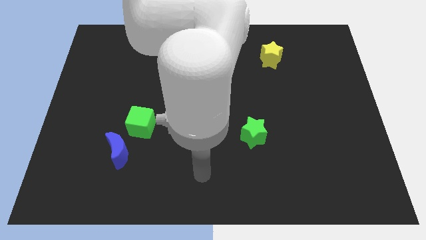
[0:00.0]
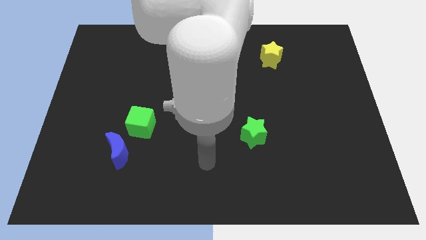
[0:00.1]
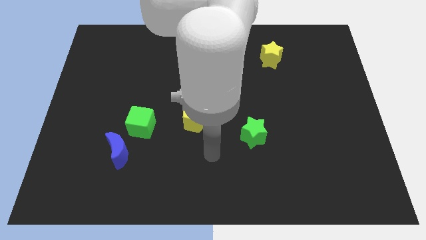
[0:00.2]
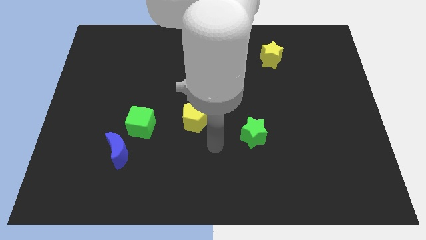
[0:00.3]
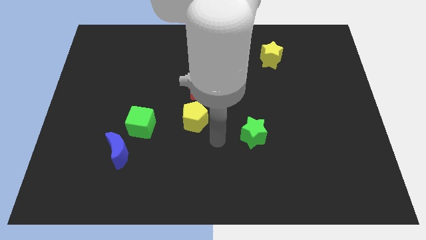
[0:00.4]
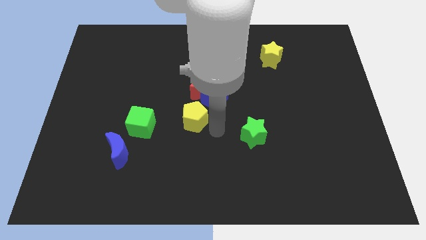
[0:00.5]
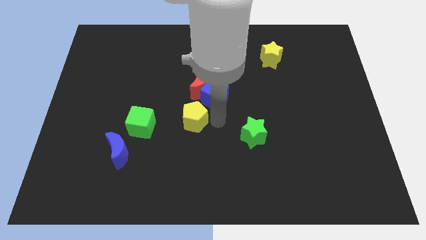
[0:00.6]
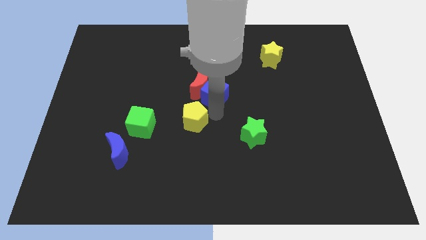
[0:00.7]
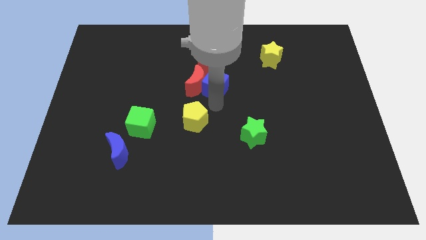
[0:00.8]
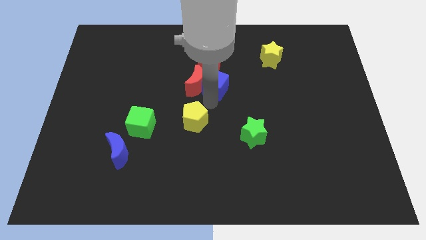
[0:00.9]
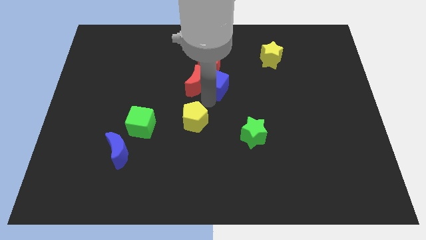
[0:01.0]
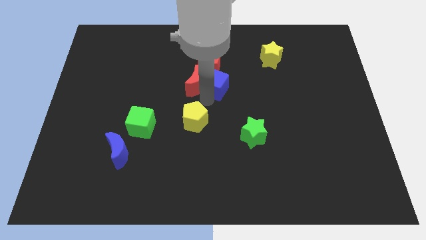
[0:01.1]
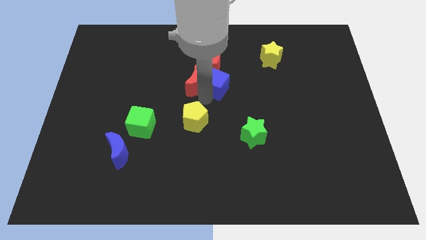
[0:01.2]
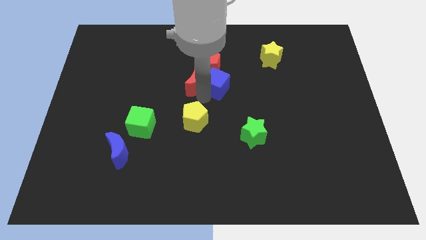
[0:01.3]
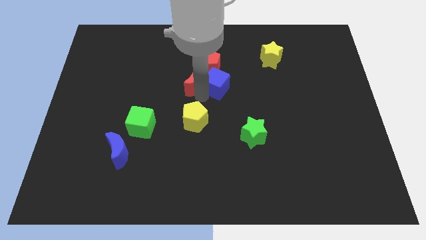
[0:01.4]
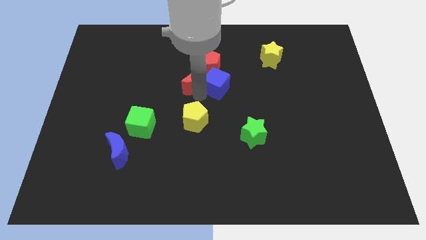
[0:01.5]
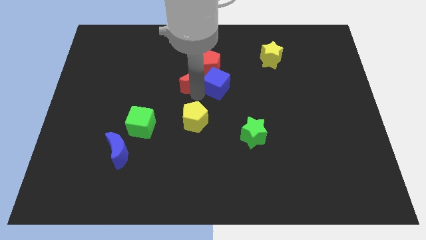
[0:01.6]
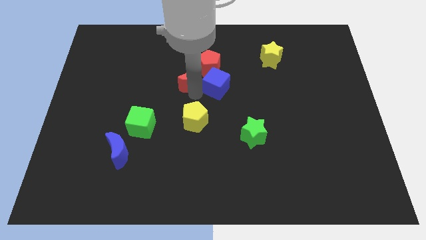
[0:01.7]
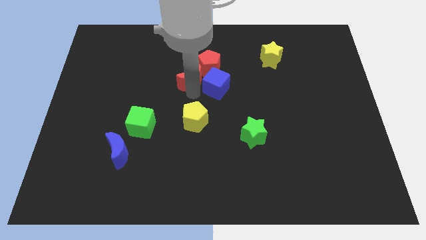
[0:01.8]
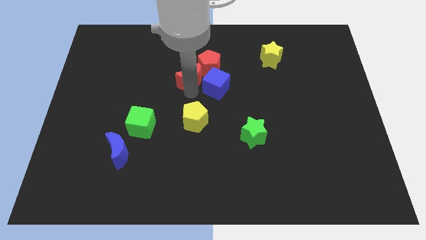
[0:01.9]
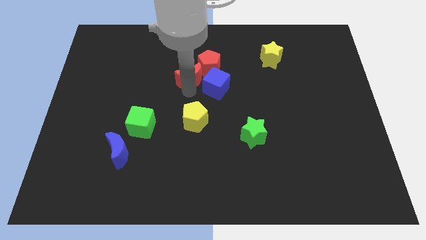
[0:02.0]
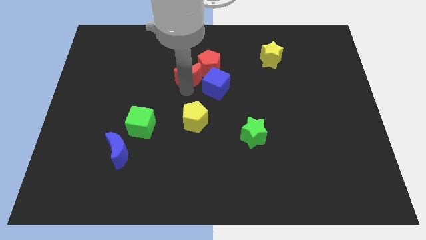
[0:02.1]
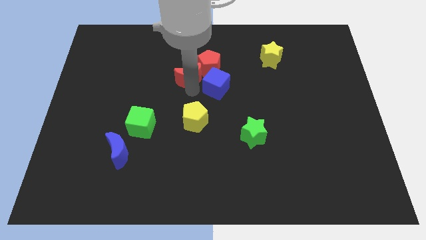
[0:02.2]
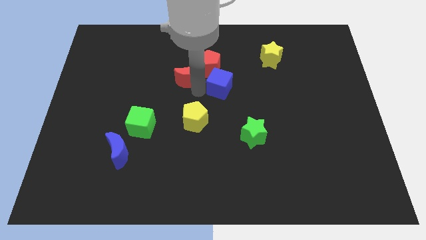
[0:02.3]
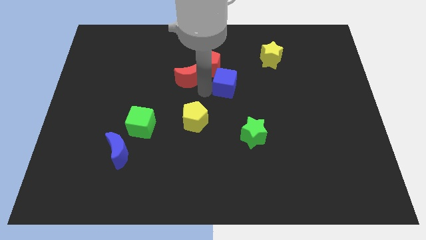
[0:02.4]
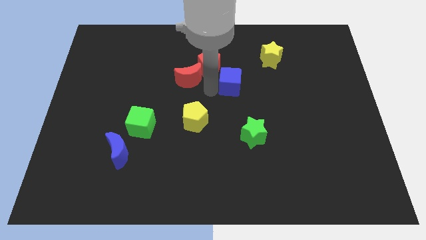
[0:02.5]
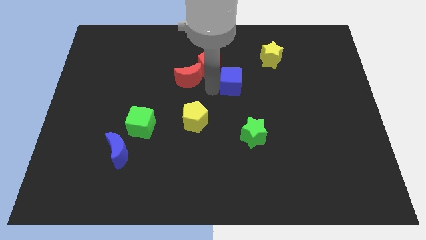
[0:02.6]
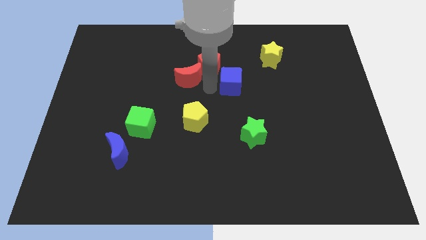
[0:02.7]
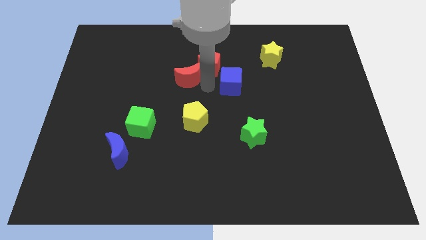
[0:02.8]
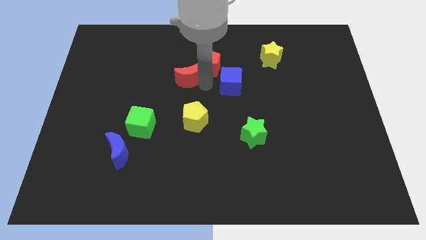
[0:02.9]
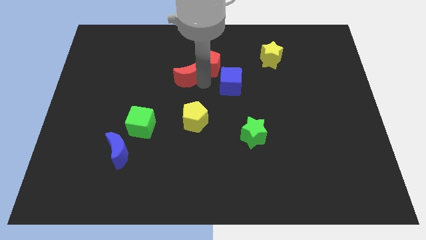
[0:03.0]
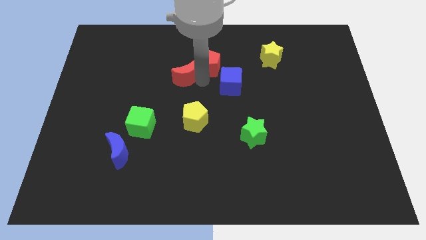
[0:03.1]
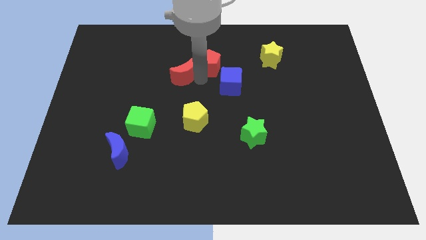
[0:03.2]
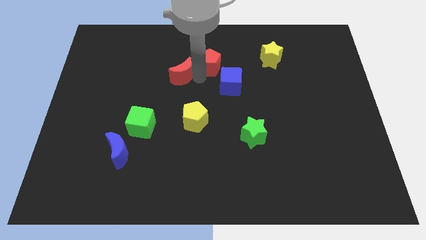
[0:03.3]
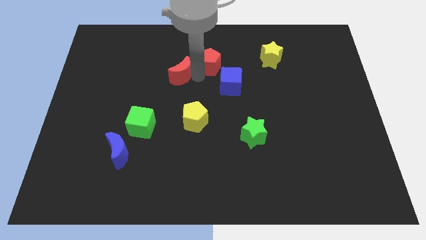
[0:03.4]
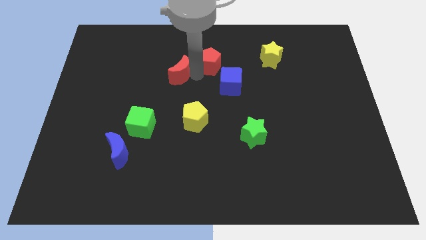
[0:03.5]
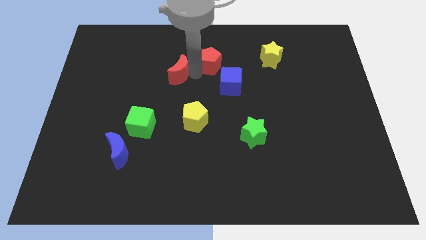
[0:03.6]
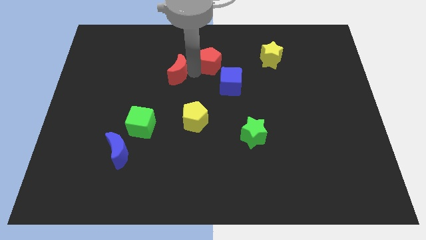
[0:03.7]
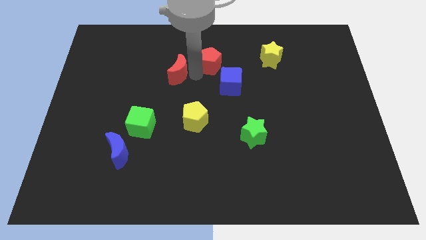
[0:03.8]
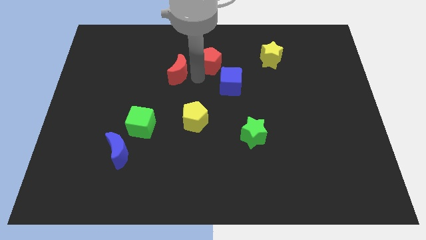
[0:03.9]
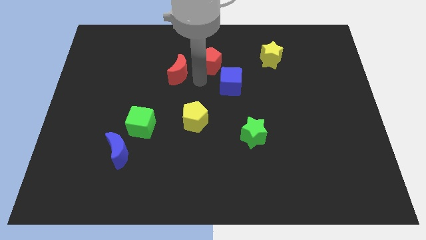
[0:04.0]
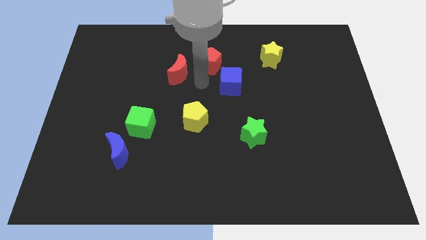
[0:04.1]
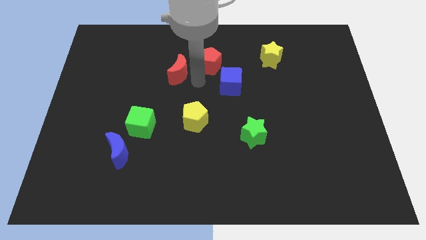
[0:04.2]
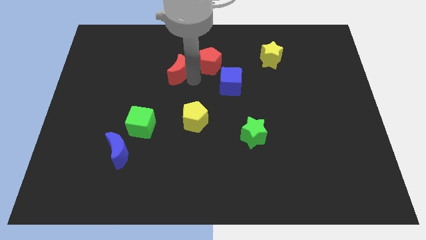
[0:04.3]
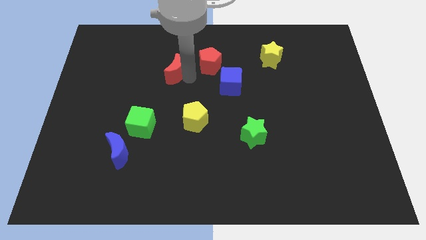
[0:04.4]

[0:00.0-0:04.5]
separate the red moon from the blue cube, red pentagon, and yellow pentagon

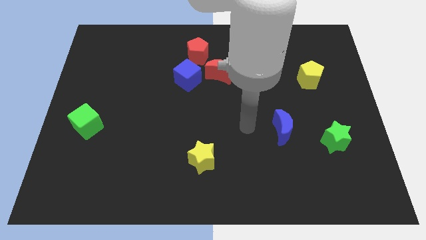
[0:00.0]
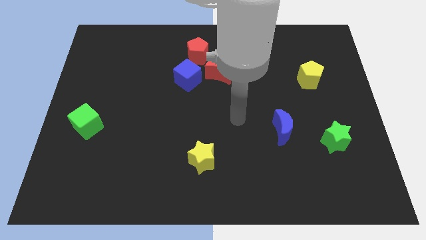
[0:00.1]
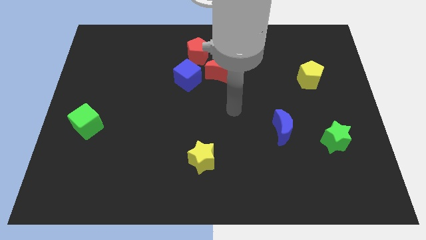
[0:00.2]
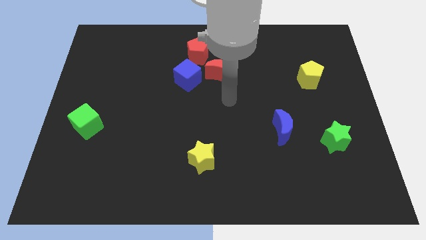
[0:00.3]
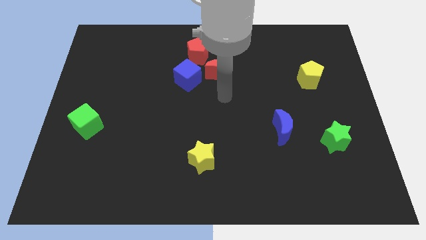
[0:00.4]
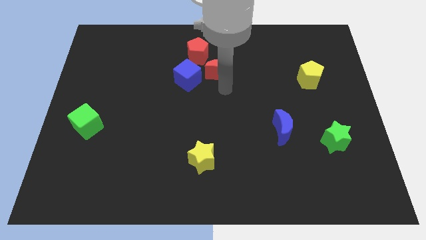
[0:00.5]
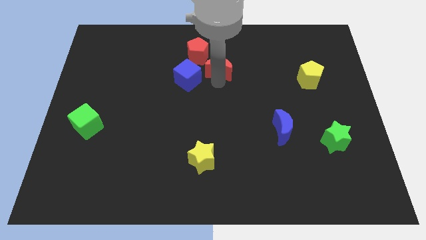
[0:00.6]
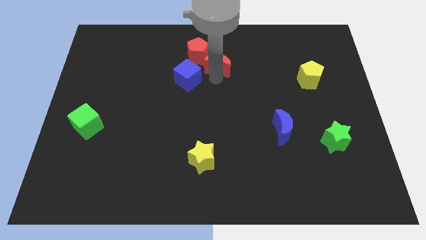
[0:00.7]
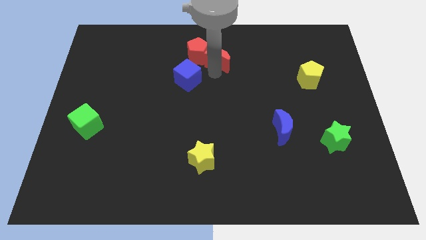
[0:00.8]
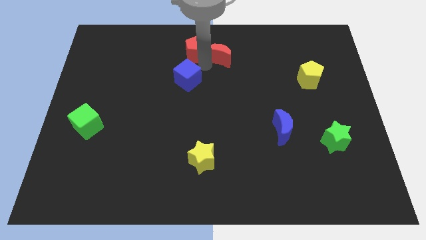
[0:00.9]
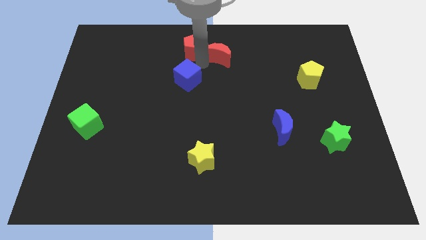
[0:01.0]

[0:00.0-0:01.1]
move the blue cube away from the red moon and red pentagon

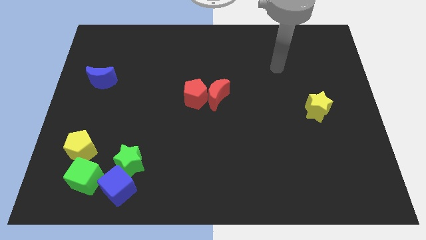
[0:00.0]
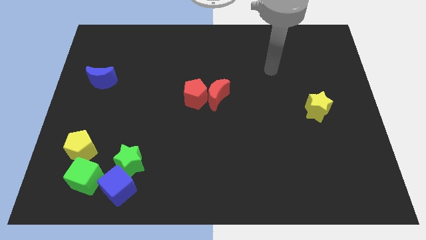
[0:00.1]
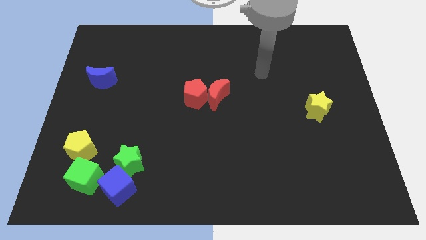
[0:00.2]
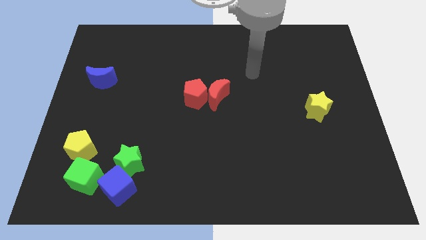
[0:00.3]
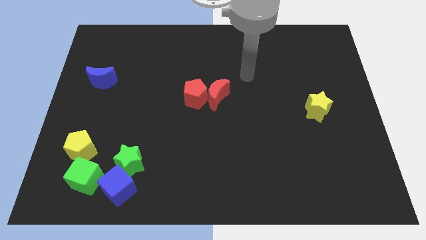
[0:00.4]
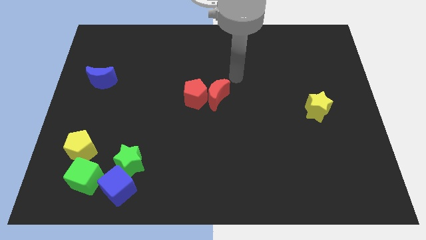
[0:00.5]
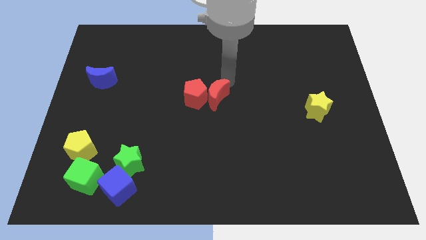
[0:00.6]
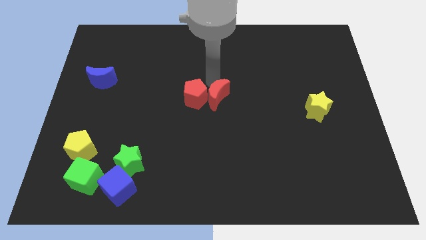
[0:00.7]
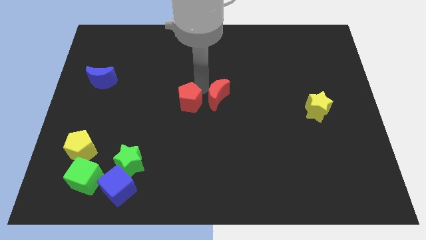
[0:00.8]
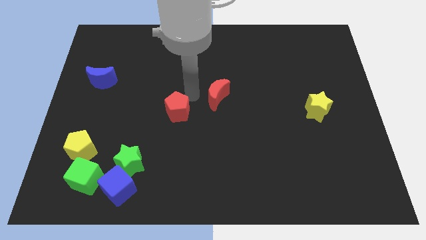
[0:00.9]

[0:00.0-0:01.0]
move the red moon away from the red pentagon

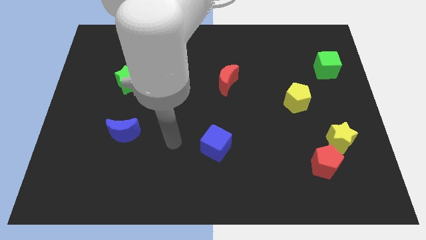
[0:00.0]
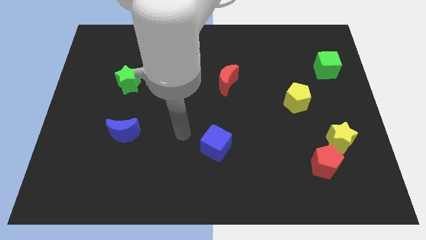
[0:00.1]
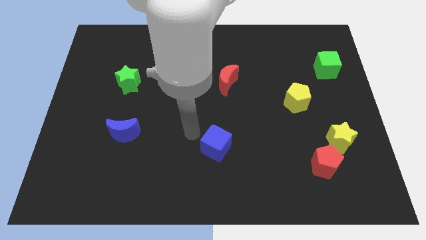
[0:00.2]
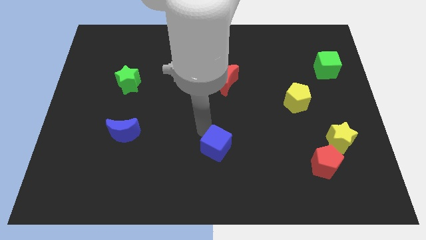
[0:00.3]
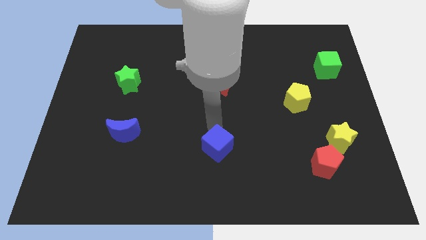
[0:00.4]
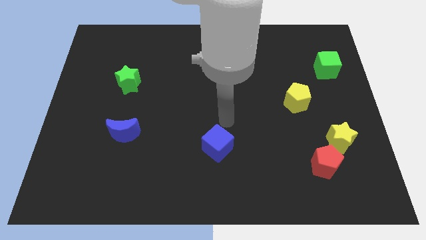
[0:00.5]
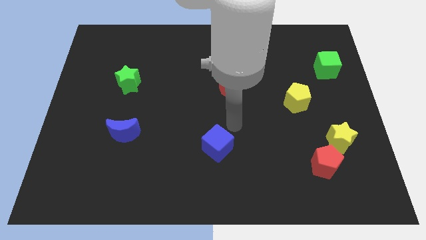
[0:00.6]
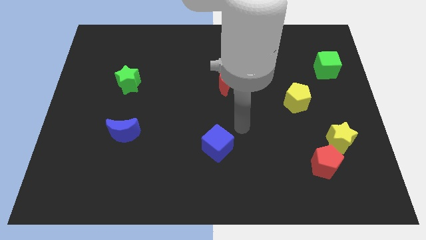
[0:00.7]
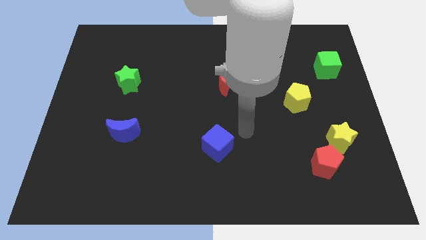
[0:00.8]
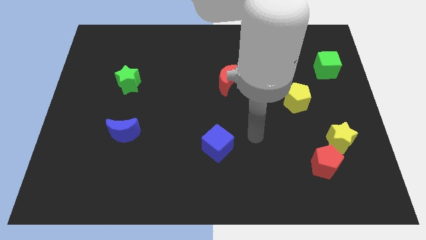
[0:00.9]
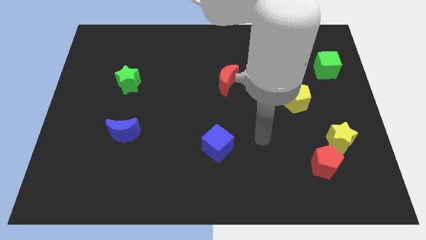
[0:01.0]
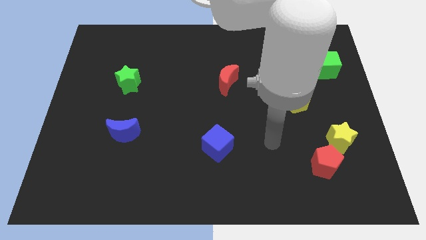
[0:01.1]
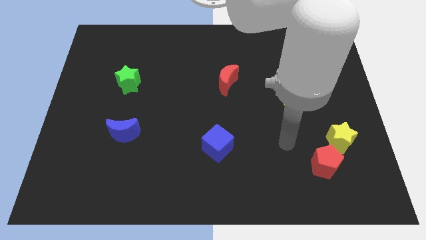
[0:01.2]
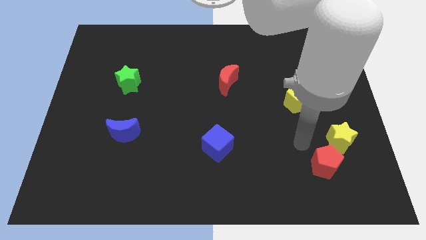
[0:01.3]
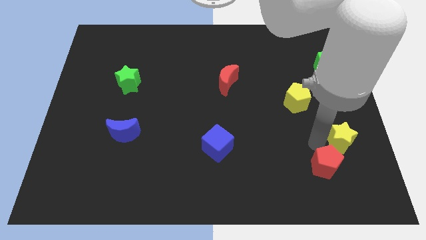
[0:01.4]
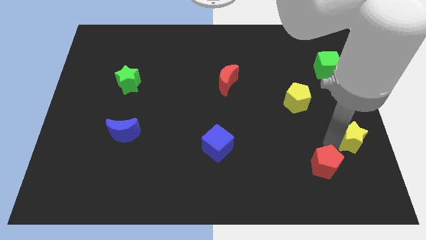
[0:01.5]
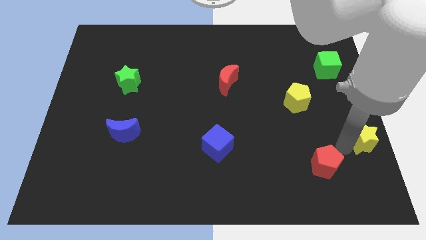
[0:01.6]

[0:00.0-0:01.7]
separate the red pentagon from the yellow star

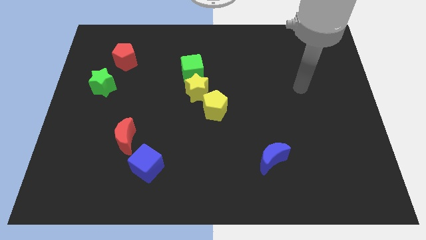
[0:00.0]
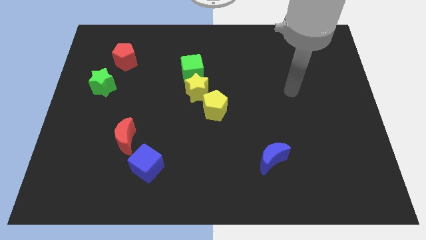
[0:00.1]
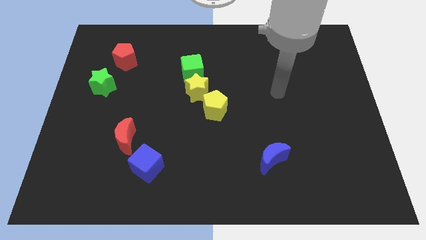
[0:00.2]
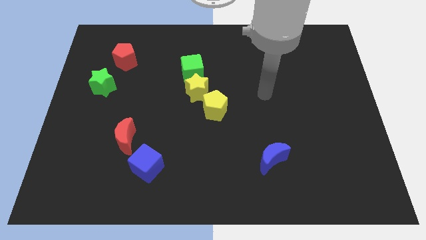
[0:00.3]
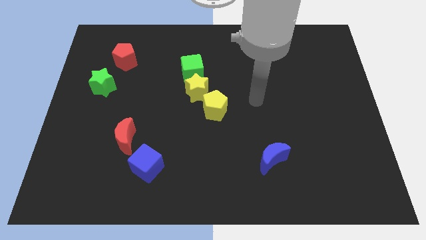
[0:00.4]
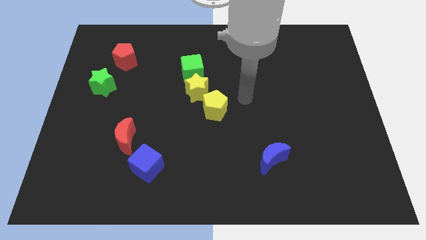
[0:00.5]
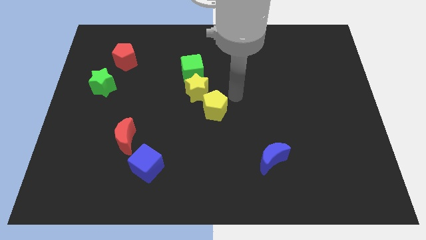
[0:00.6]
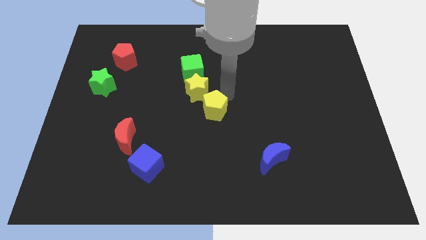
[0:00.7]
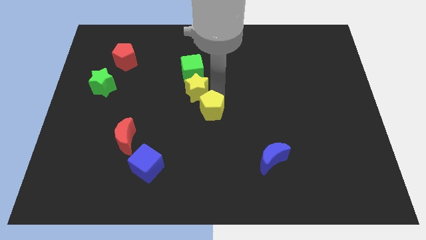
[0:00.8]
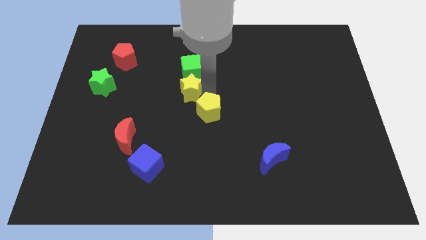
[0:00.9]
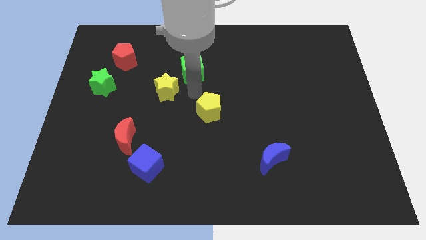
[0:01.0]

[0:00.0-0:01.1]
pull the yellow pentagon apart from the yellow star
